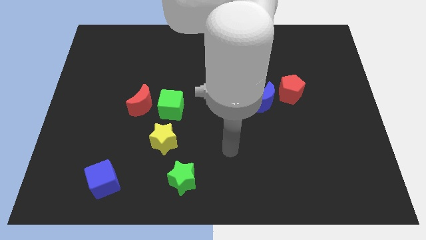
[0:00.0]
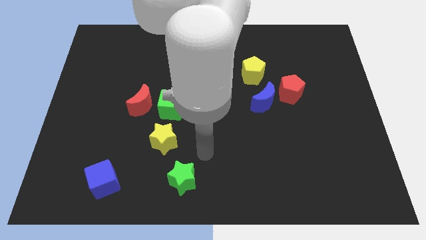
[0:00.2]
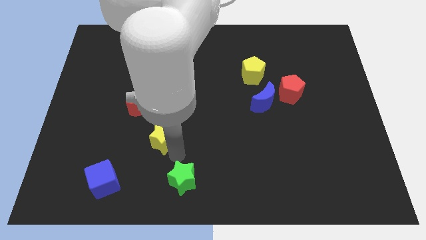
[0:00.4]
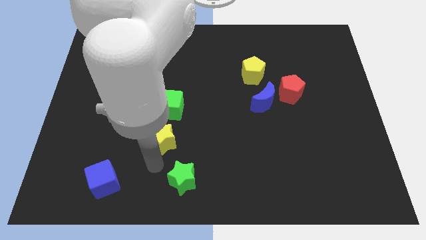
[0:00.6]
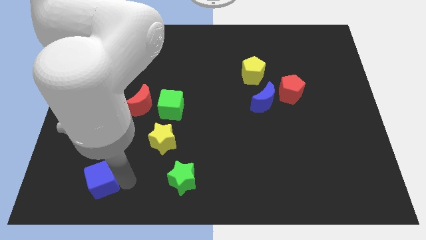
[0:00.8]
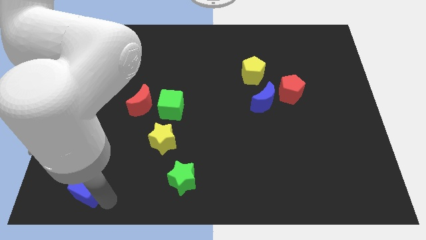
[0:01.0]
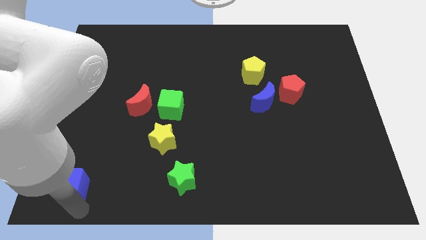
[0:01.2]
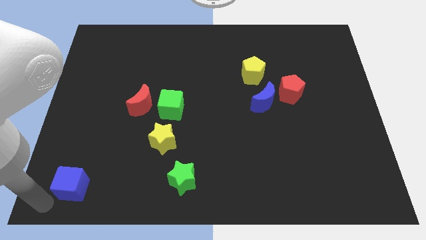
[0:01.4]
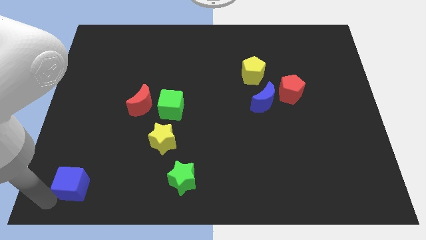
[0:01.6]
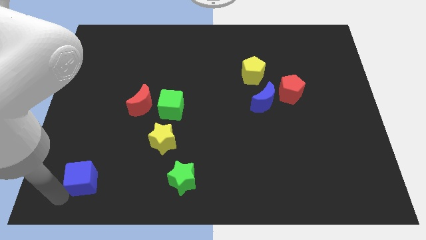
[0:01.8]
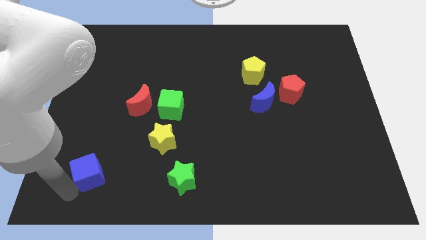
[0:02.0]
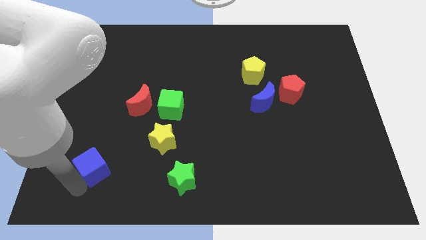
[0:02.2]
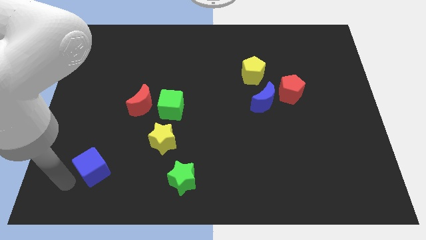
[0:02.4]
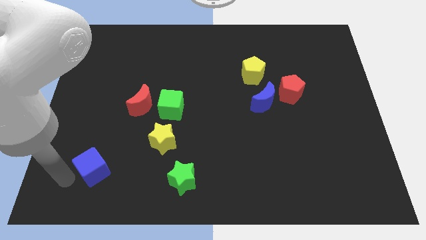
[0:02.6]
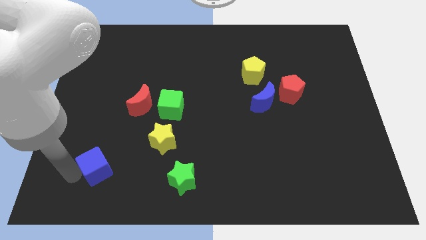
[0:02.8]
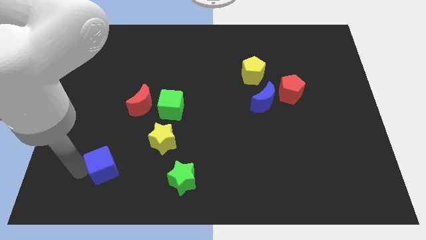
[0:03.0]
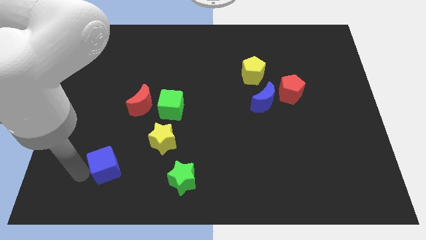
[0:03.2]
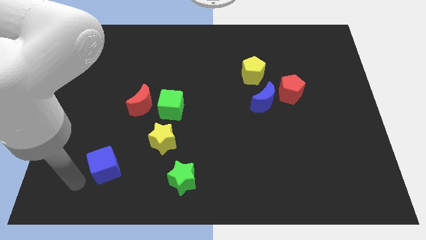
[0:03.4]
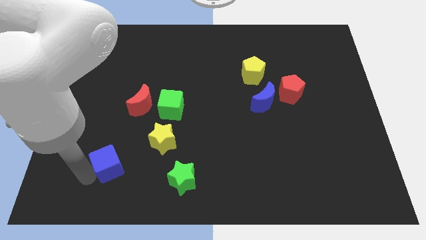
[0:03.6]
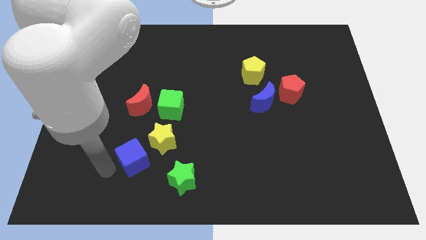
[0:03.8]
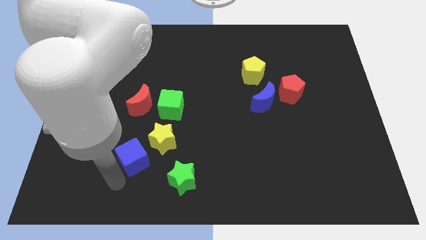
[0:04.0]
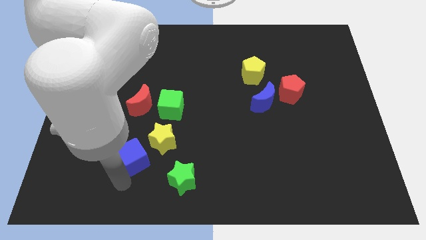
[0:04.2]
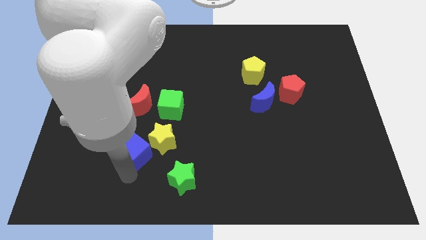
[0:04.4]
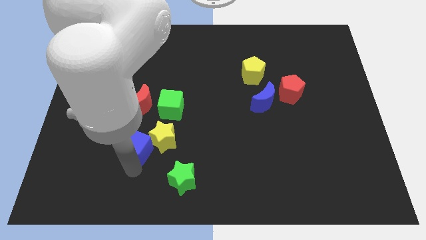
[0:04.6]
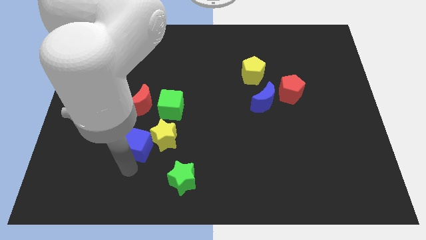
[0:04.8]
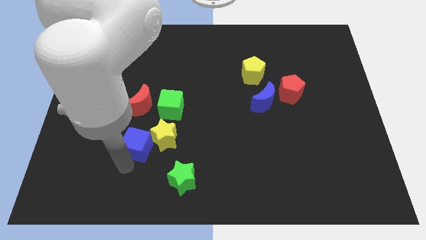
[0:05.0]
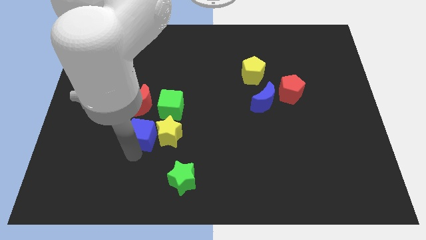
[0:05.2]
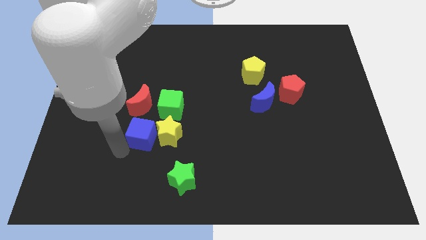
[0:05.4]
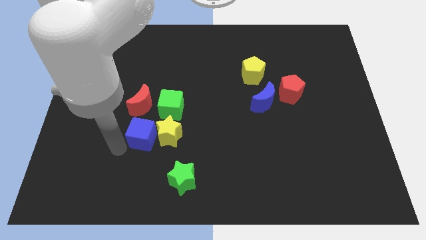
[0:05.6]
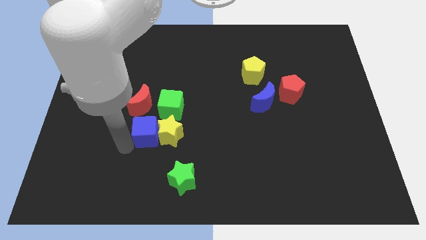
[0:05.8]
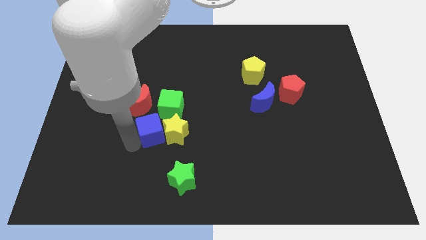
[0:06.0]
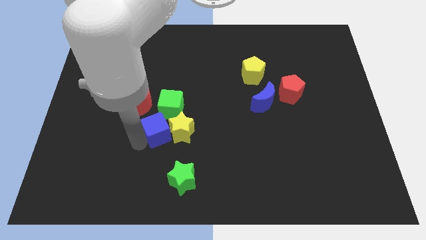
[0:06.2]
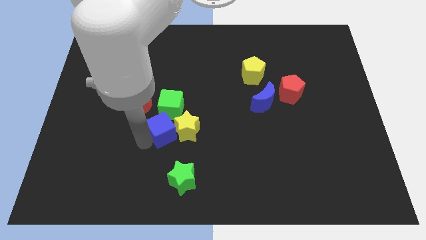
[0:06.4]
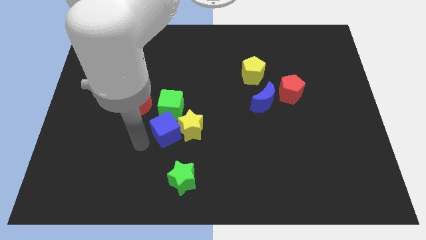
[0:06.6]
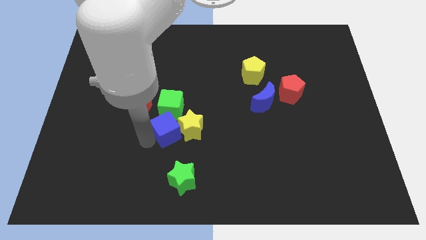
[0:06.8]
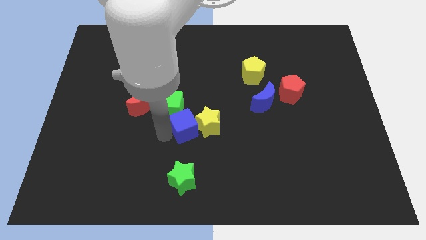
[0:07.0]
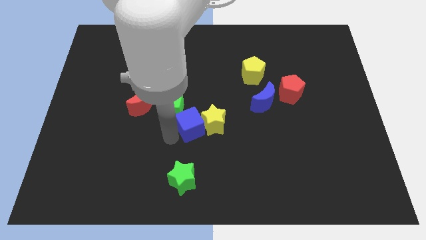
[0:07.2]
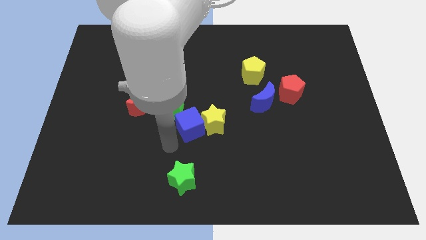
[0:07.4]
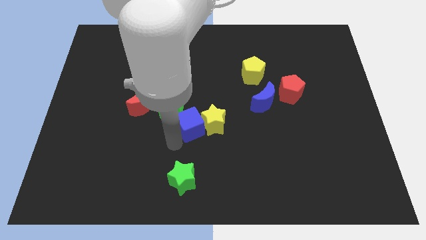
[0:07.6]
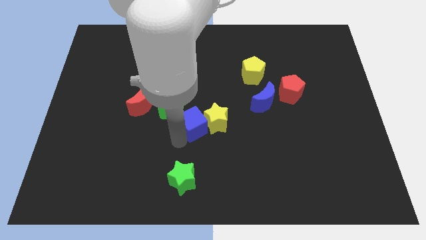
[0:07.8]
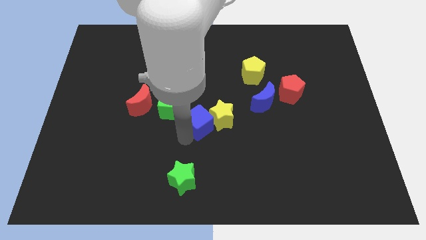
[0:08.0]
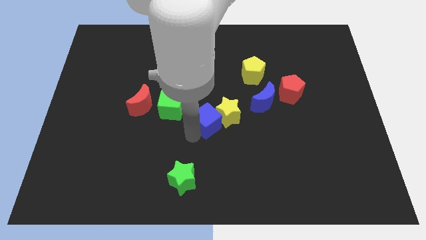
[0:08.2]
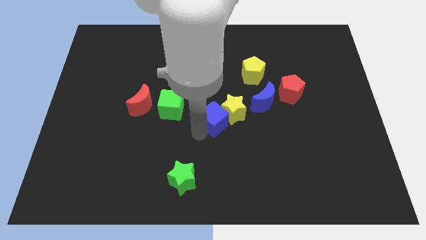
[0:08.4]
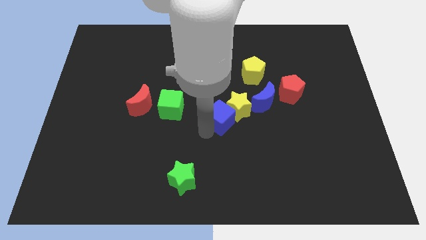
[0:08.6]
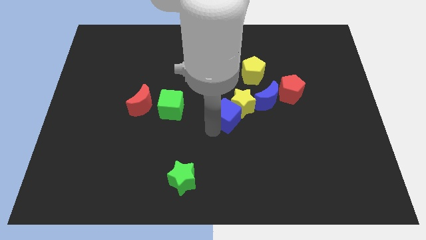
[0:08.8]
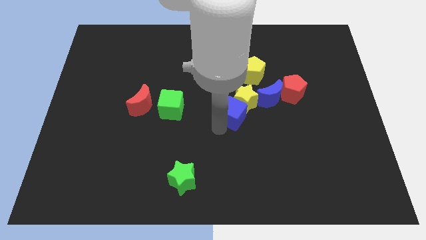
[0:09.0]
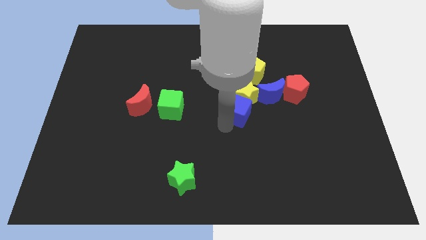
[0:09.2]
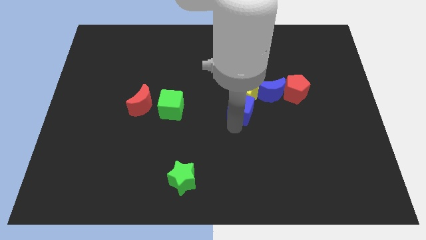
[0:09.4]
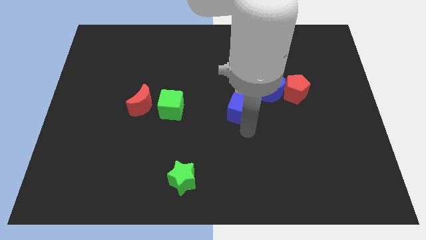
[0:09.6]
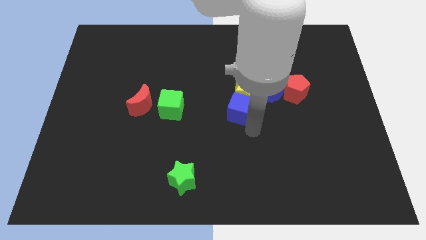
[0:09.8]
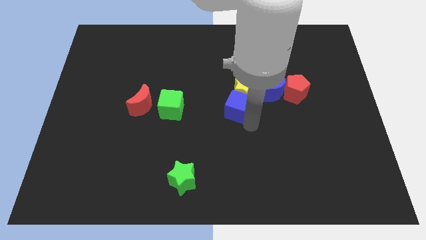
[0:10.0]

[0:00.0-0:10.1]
push the blue cube to the left side of the blue moon

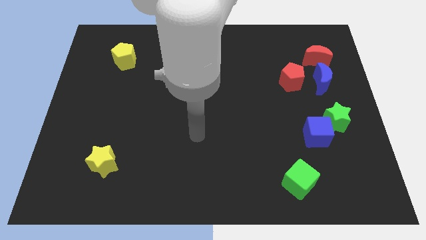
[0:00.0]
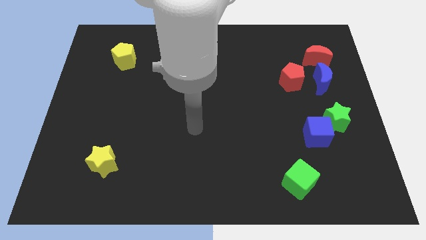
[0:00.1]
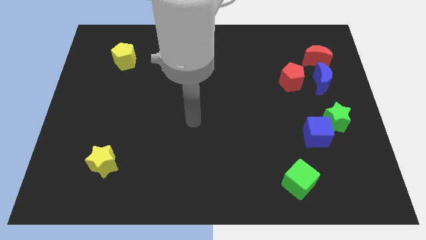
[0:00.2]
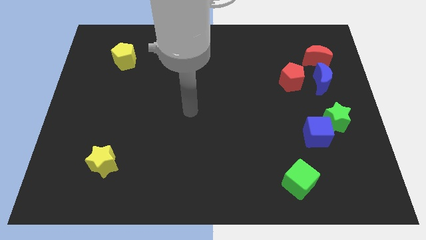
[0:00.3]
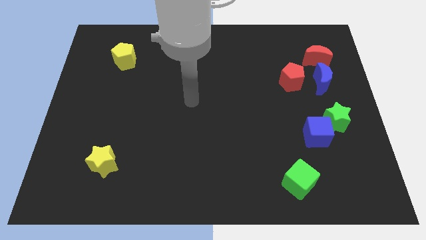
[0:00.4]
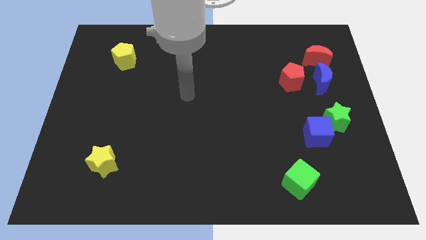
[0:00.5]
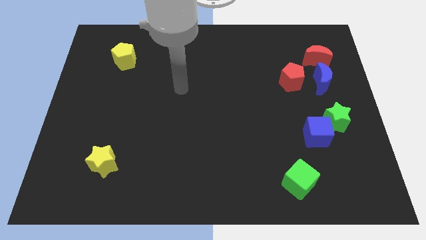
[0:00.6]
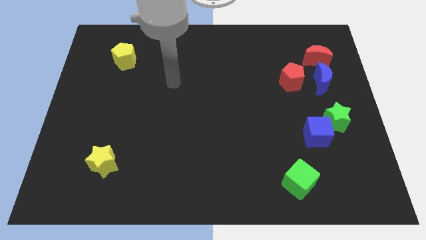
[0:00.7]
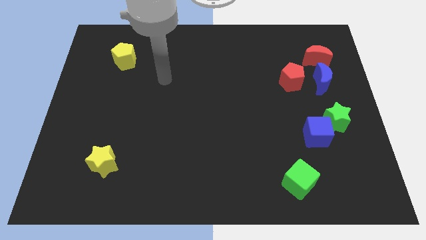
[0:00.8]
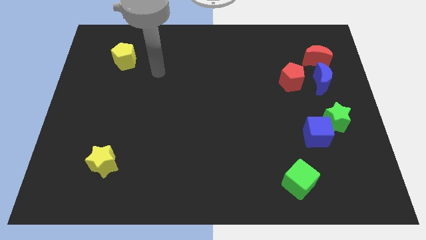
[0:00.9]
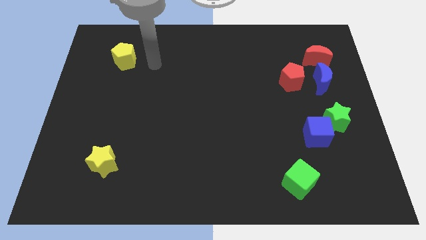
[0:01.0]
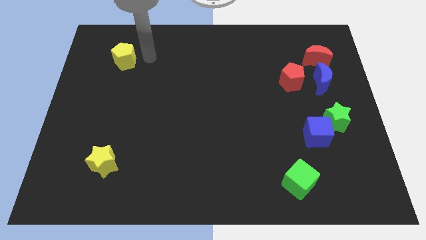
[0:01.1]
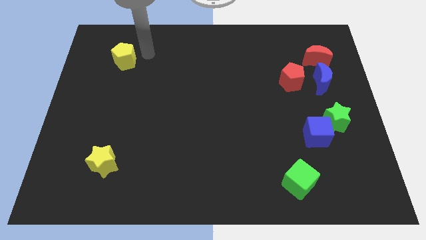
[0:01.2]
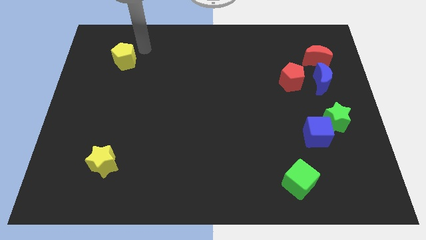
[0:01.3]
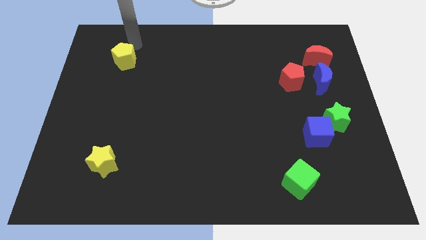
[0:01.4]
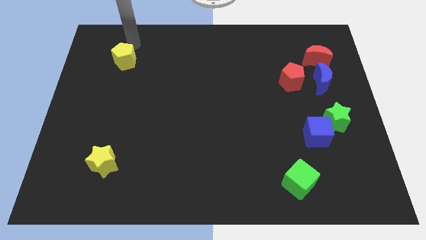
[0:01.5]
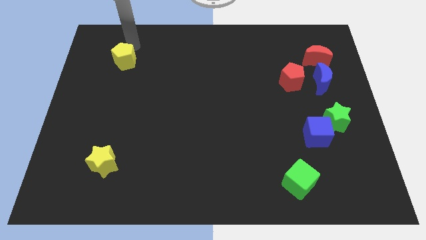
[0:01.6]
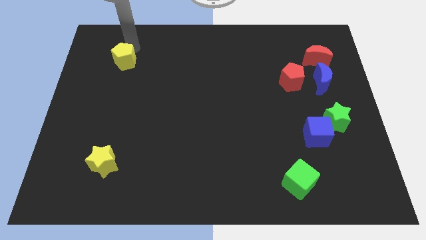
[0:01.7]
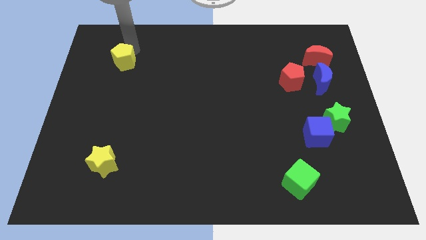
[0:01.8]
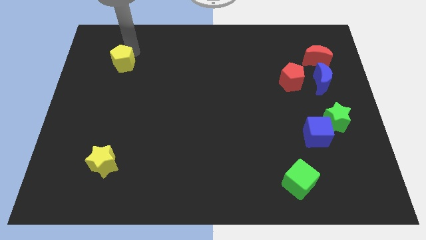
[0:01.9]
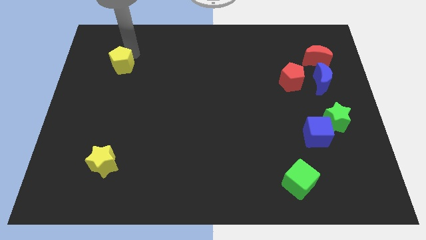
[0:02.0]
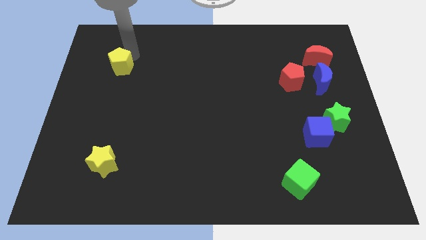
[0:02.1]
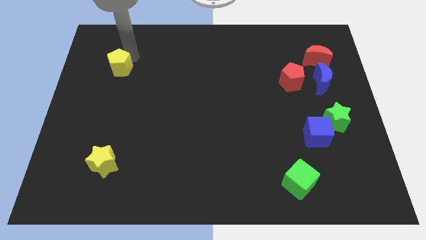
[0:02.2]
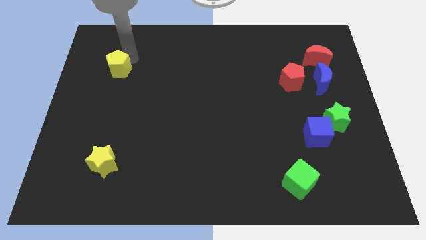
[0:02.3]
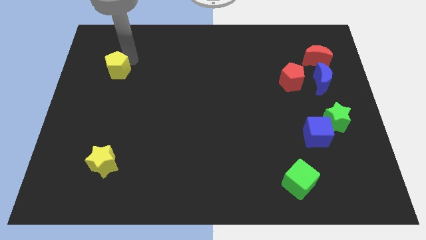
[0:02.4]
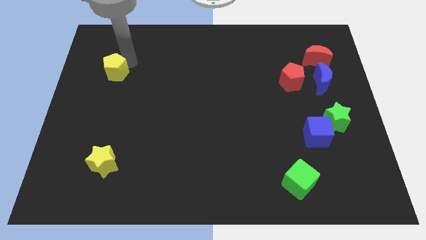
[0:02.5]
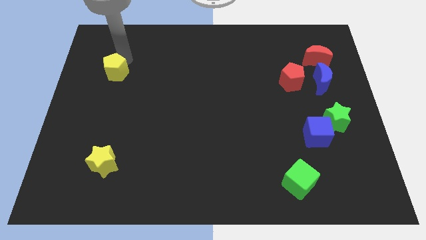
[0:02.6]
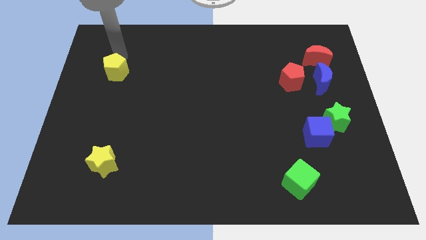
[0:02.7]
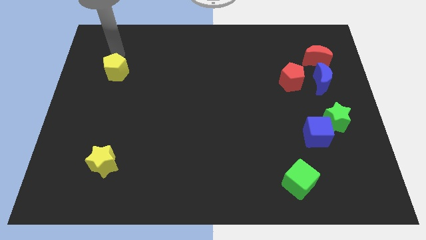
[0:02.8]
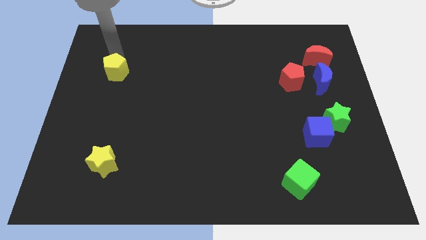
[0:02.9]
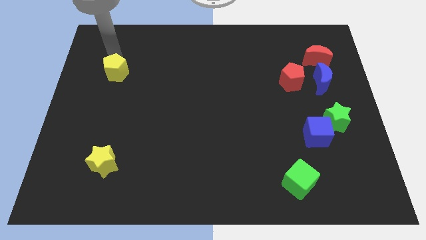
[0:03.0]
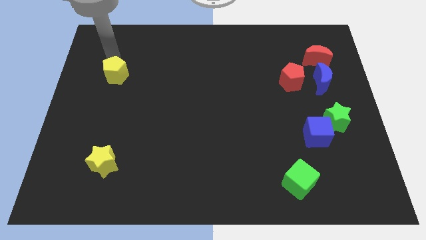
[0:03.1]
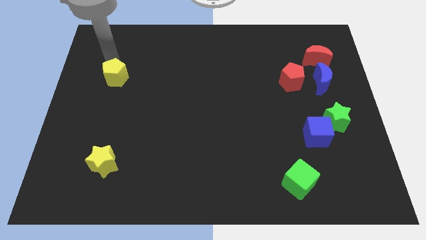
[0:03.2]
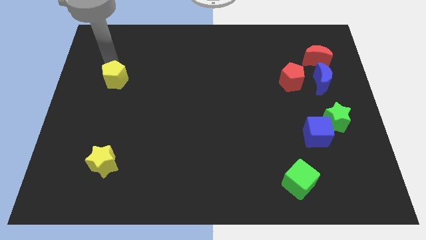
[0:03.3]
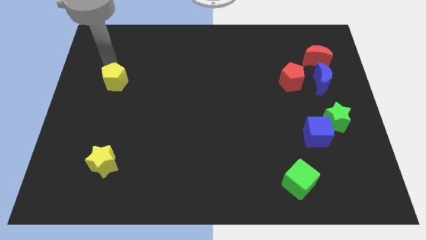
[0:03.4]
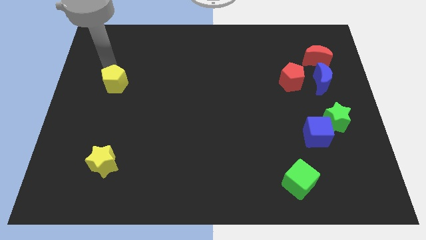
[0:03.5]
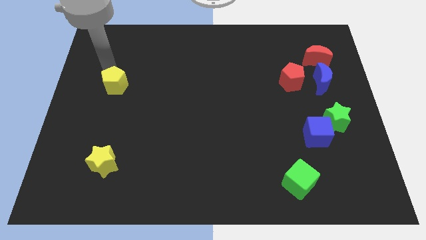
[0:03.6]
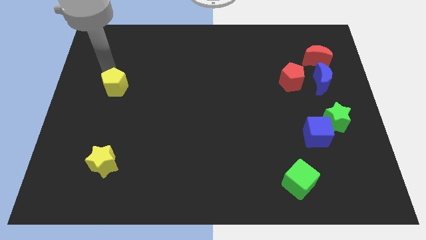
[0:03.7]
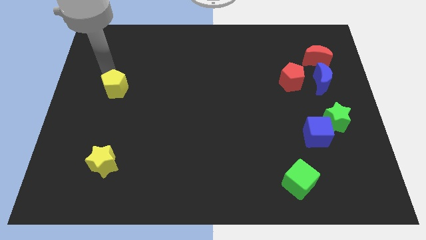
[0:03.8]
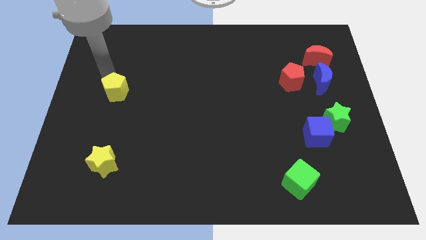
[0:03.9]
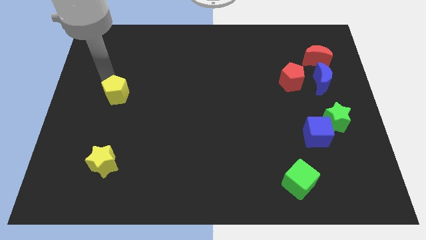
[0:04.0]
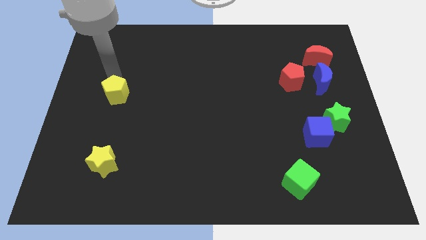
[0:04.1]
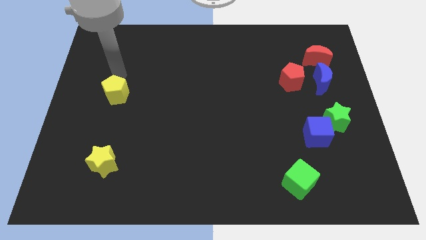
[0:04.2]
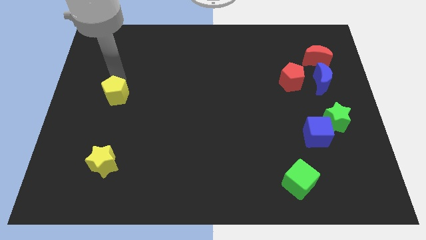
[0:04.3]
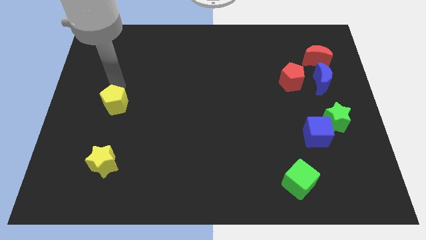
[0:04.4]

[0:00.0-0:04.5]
move the yellow pentagon to the top side of the yellow star
